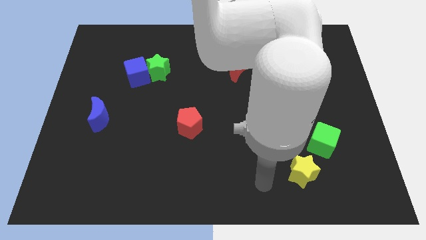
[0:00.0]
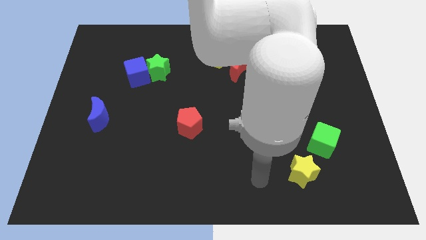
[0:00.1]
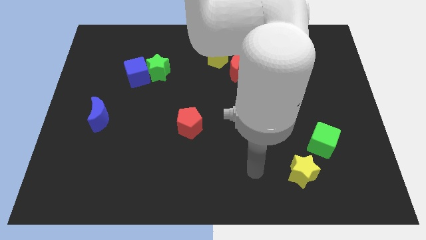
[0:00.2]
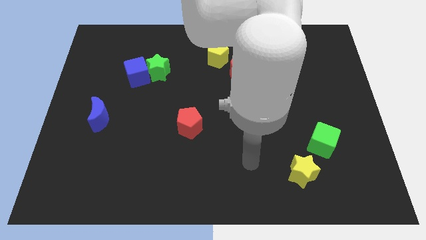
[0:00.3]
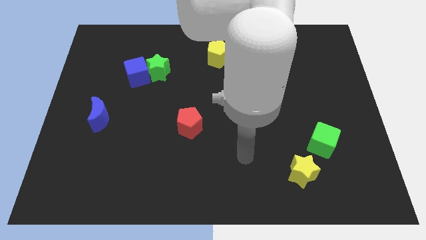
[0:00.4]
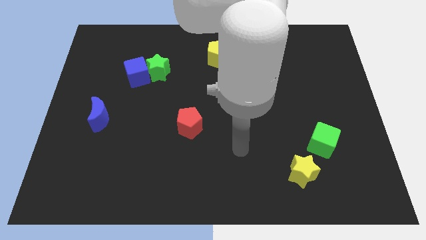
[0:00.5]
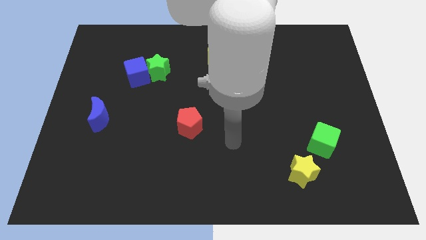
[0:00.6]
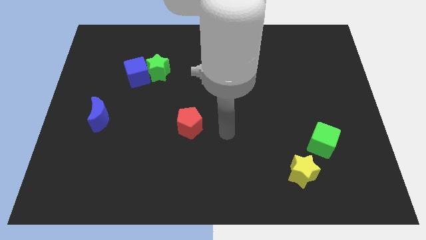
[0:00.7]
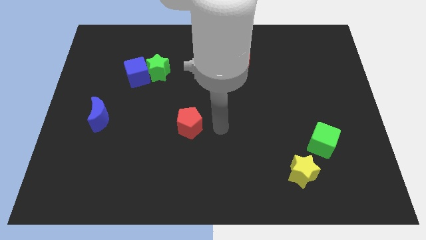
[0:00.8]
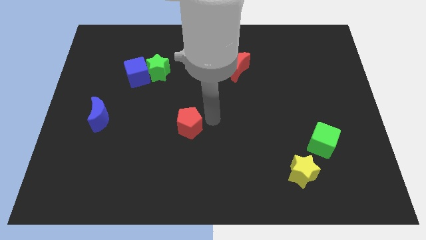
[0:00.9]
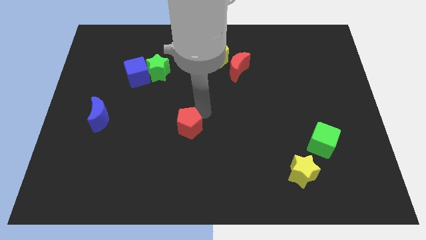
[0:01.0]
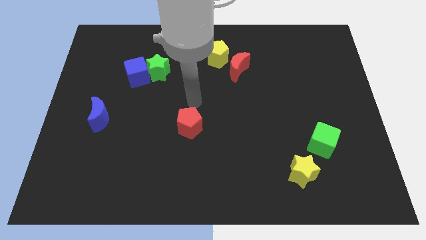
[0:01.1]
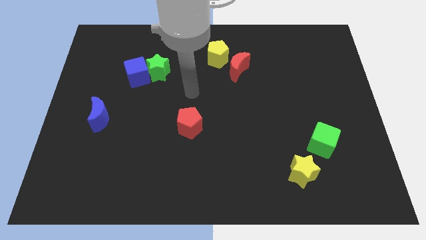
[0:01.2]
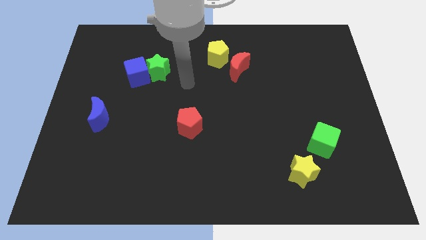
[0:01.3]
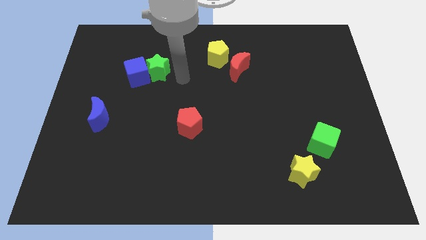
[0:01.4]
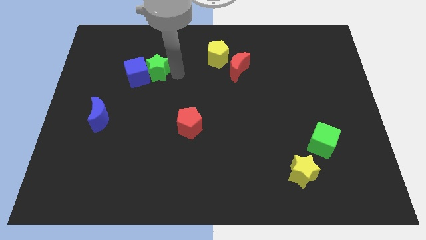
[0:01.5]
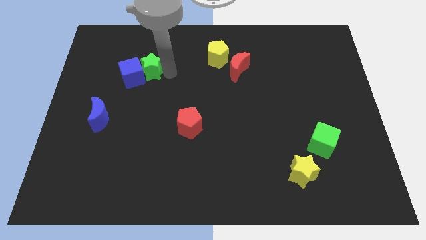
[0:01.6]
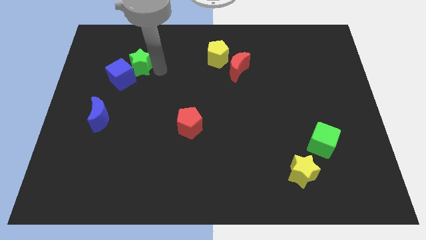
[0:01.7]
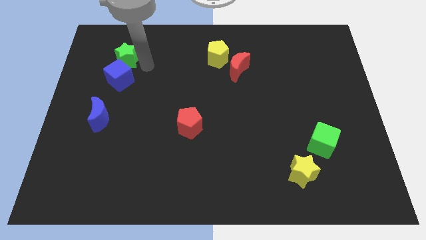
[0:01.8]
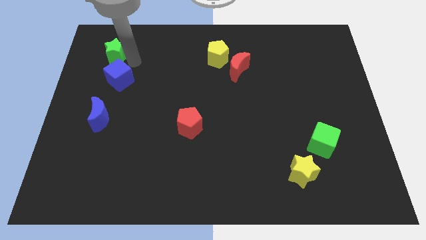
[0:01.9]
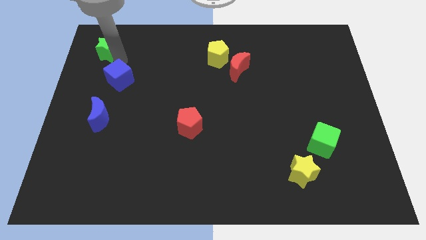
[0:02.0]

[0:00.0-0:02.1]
pull the blue cube apart from the green star

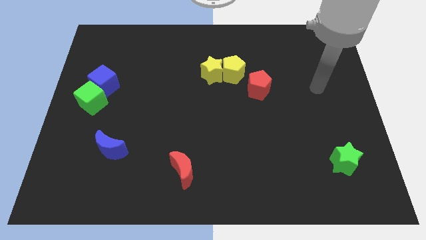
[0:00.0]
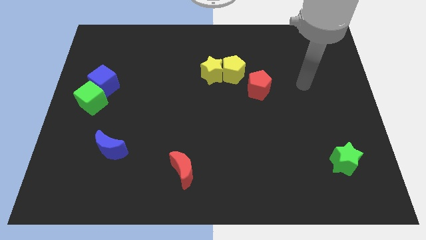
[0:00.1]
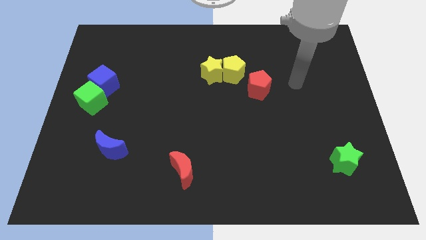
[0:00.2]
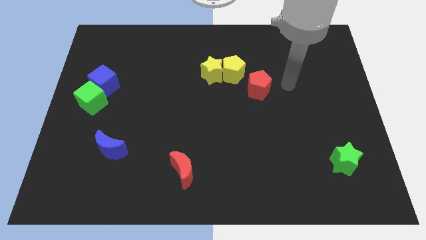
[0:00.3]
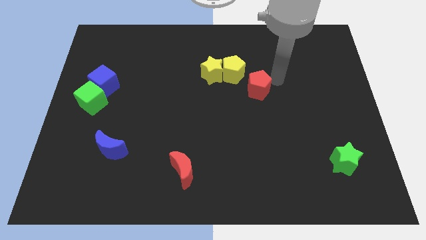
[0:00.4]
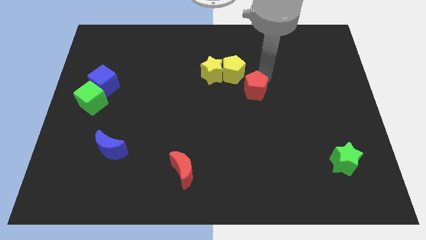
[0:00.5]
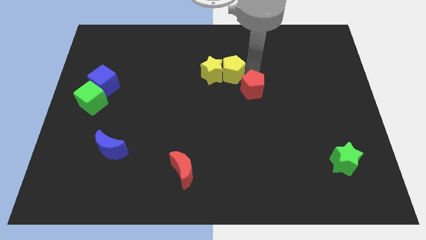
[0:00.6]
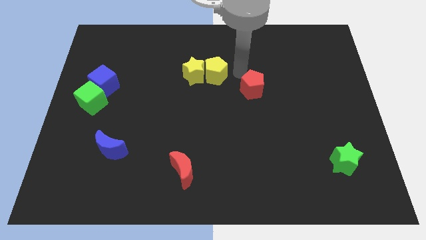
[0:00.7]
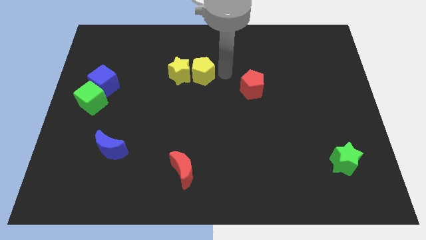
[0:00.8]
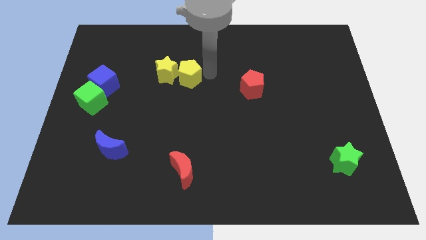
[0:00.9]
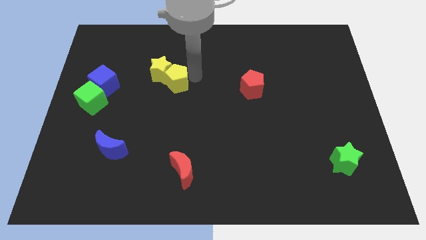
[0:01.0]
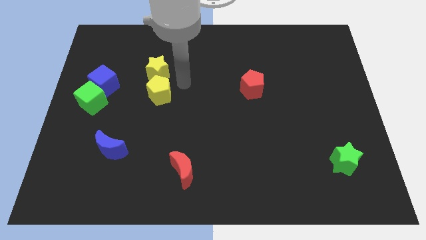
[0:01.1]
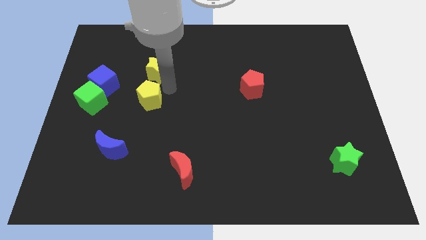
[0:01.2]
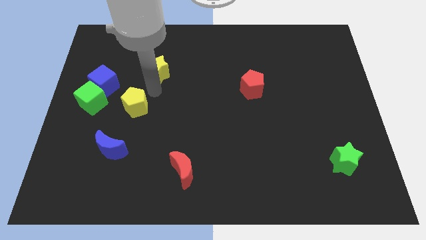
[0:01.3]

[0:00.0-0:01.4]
separate the yellow star from the yellow pentagon

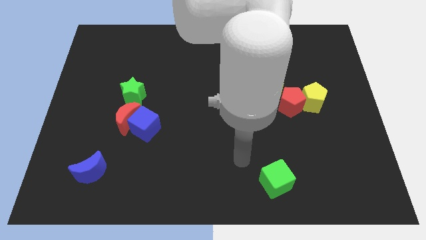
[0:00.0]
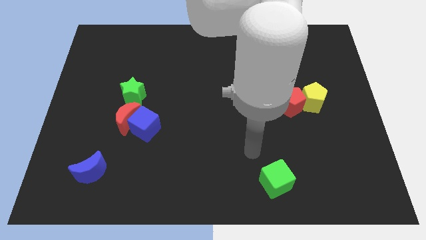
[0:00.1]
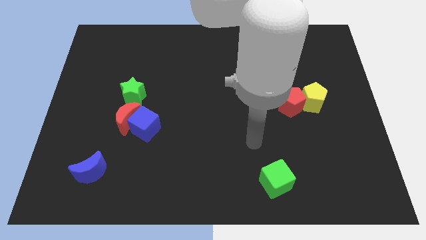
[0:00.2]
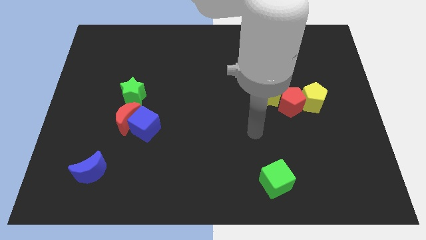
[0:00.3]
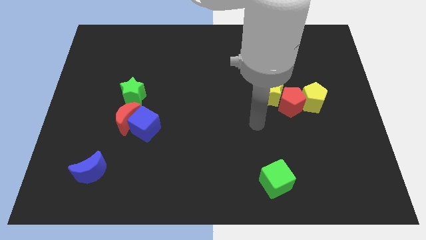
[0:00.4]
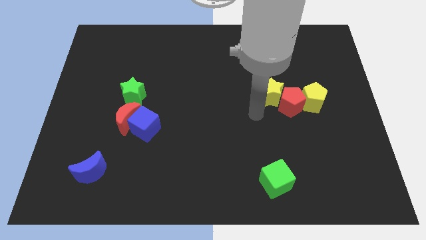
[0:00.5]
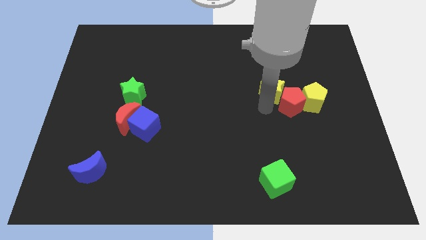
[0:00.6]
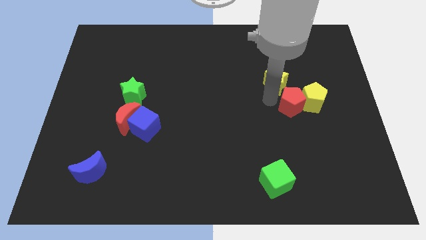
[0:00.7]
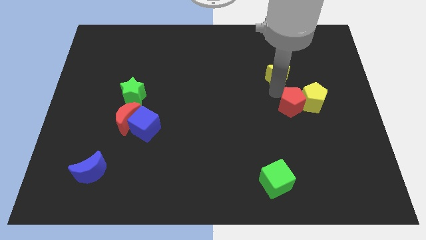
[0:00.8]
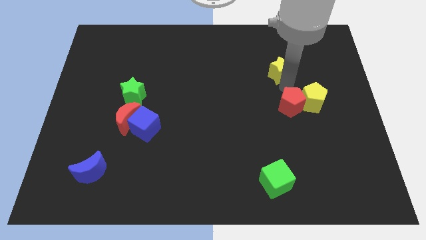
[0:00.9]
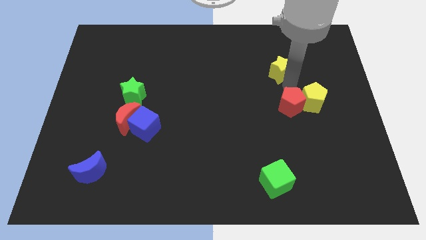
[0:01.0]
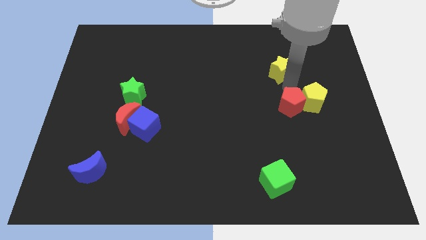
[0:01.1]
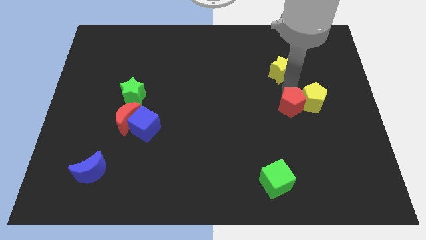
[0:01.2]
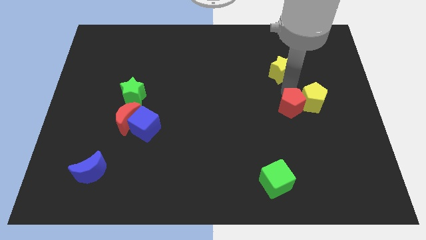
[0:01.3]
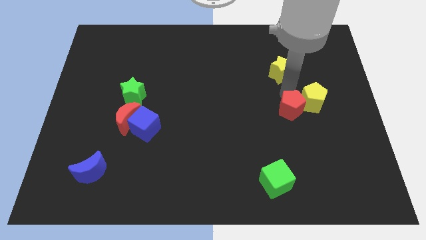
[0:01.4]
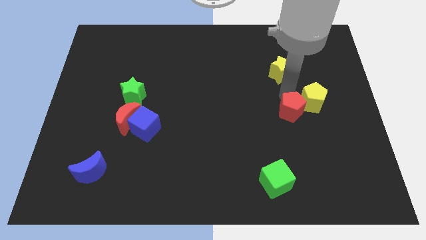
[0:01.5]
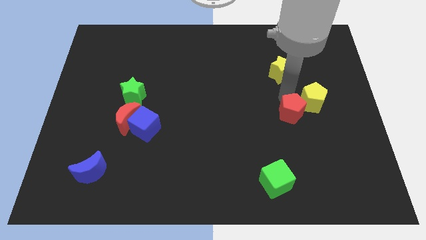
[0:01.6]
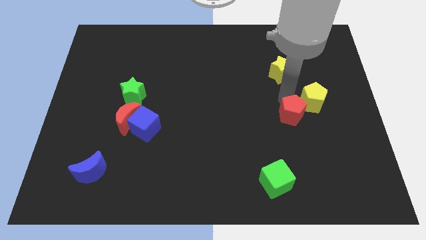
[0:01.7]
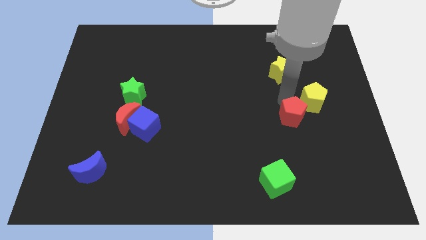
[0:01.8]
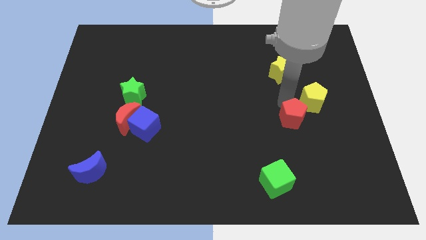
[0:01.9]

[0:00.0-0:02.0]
pull the red pentagon apart from the yellow star and yellow pentagon

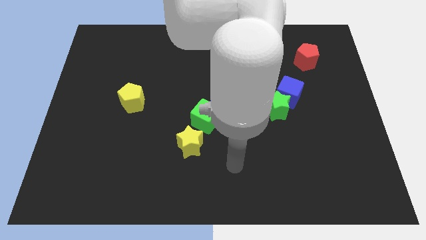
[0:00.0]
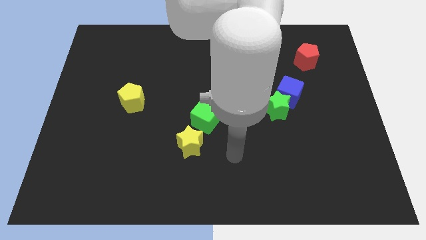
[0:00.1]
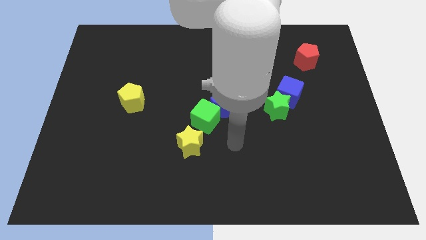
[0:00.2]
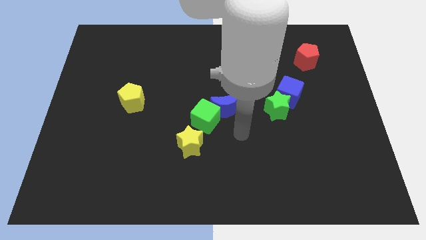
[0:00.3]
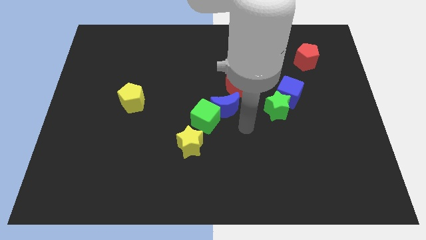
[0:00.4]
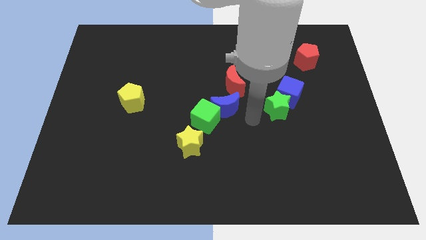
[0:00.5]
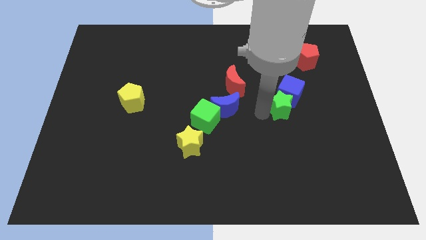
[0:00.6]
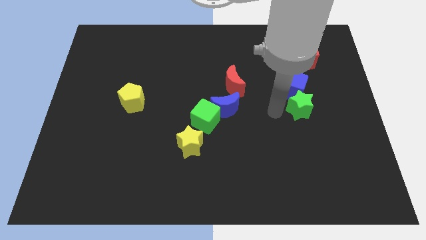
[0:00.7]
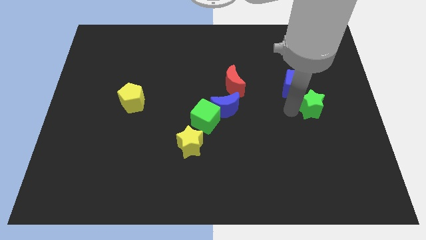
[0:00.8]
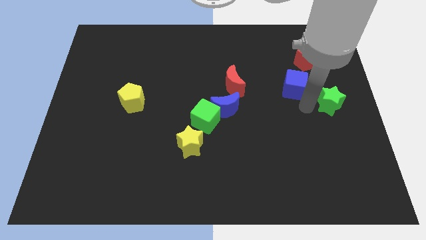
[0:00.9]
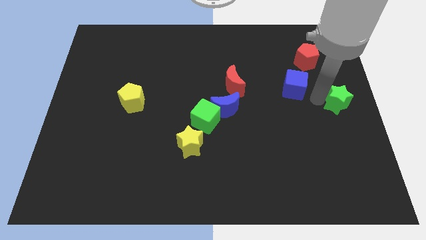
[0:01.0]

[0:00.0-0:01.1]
separate the blue cube from the green star

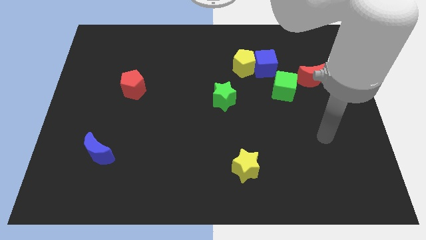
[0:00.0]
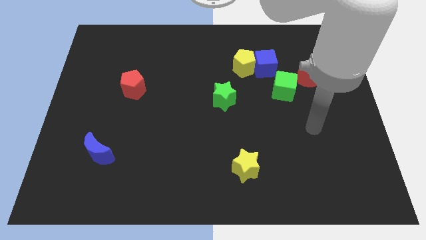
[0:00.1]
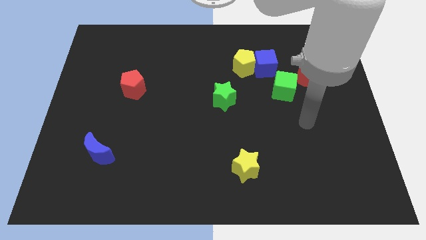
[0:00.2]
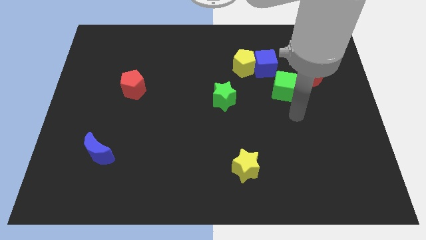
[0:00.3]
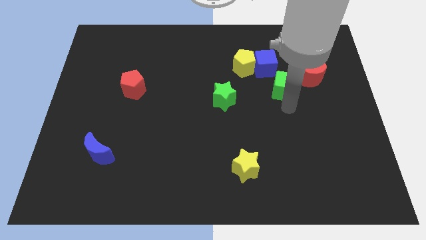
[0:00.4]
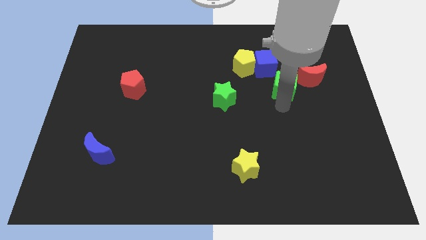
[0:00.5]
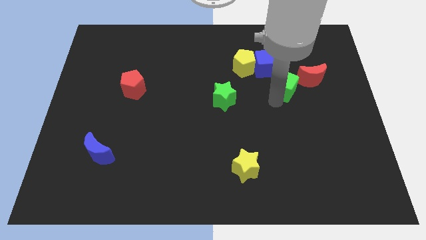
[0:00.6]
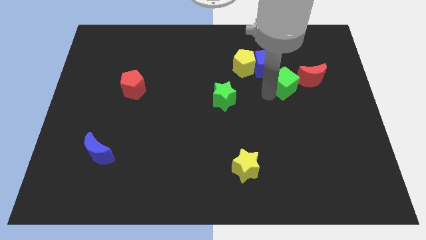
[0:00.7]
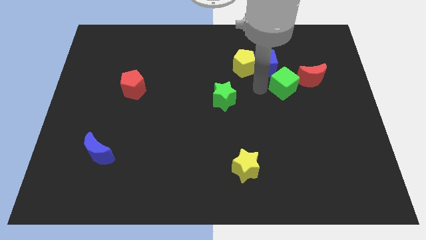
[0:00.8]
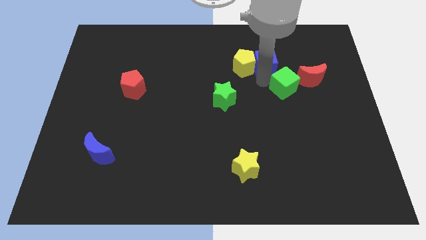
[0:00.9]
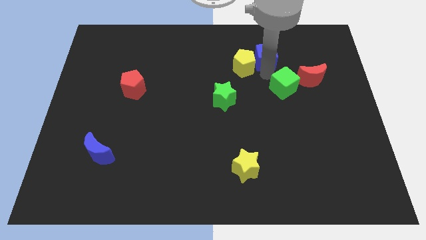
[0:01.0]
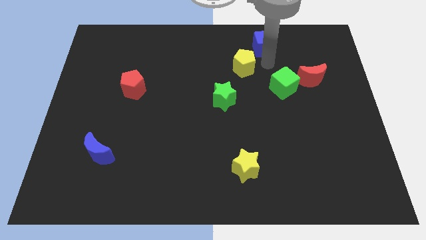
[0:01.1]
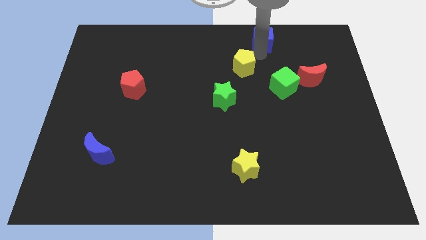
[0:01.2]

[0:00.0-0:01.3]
pull the yellow pentagon apart from the blue cube

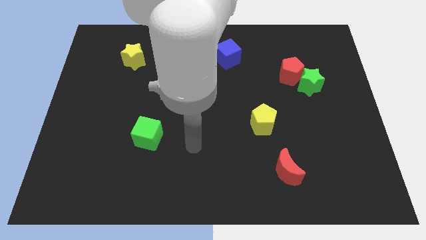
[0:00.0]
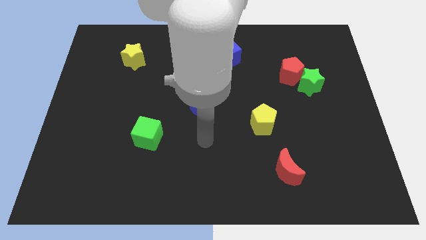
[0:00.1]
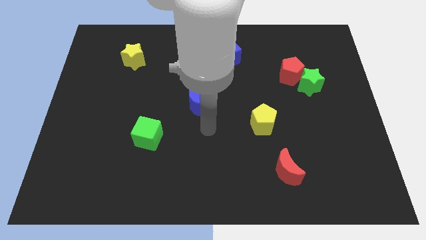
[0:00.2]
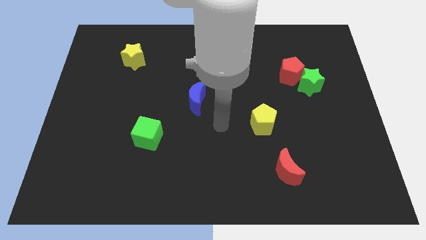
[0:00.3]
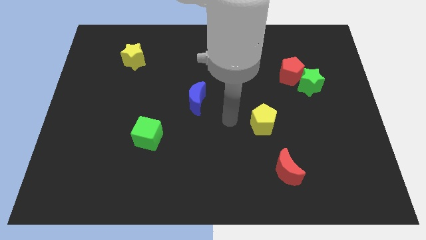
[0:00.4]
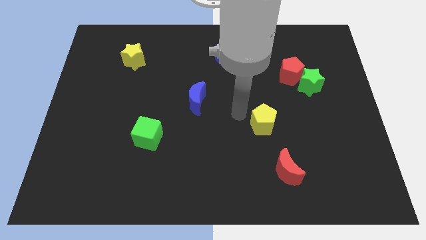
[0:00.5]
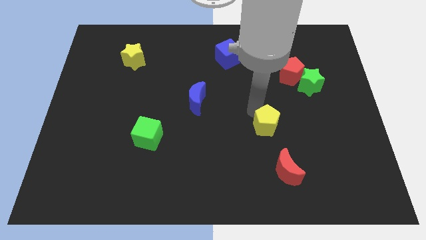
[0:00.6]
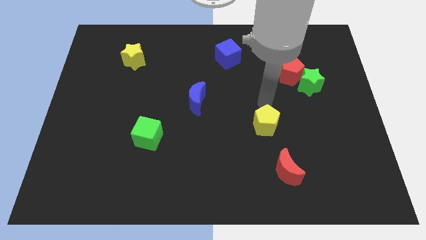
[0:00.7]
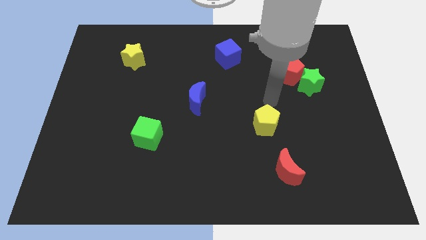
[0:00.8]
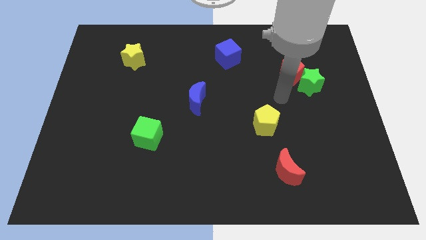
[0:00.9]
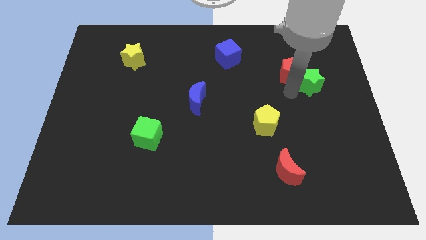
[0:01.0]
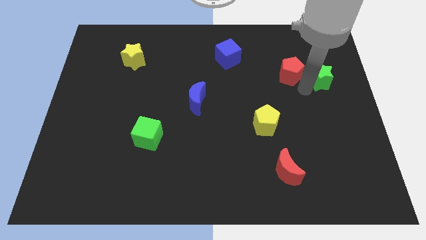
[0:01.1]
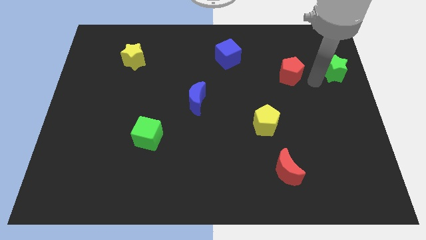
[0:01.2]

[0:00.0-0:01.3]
move the red pentagon away from the green star

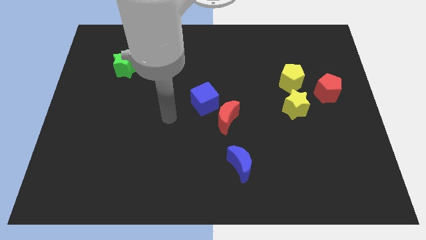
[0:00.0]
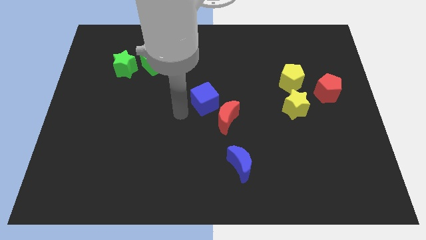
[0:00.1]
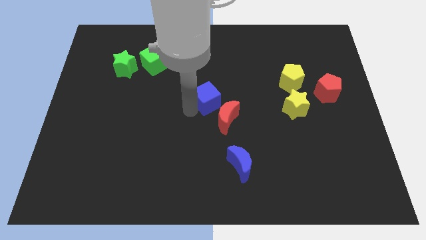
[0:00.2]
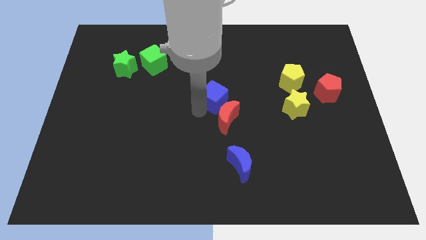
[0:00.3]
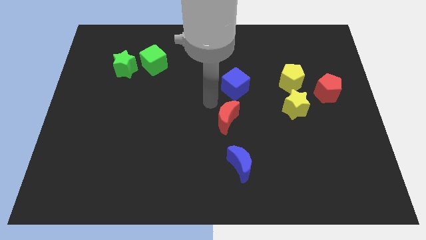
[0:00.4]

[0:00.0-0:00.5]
pull the red moon apart from the blue cube
